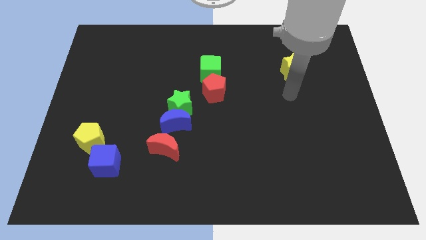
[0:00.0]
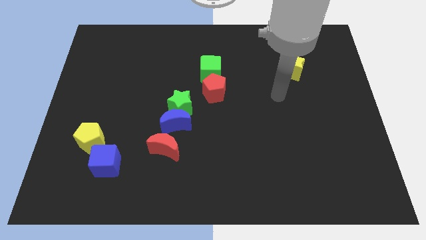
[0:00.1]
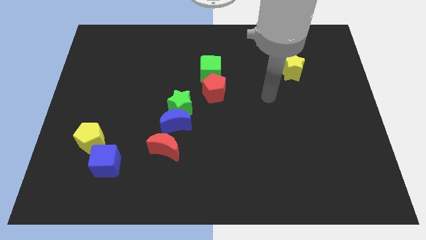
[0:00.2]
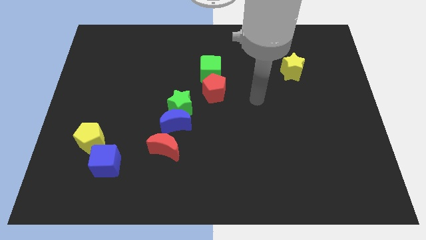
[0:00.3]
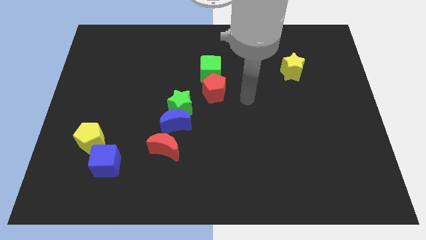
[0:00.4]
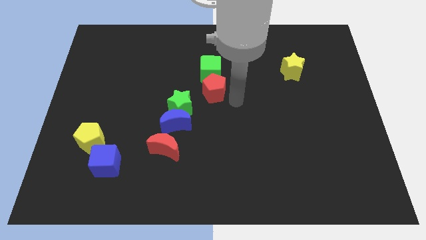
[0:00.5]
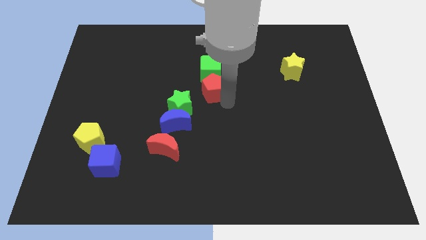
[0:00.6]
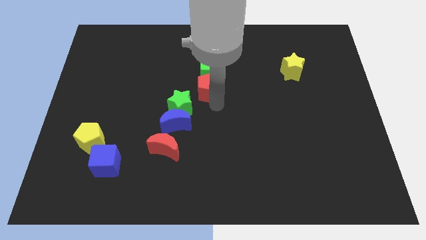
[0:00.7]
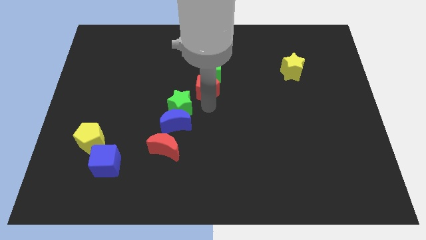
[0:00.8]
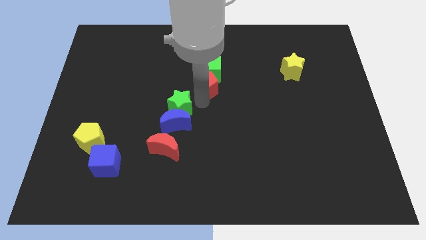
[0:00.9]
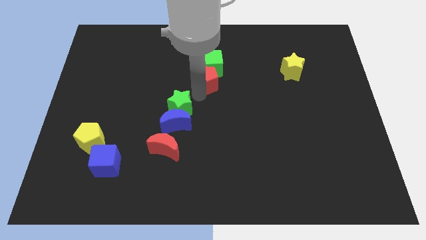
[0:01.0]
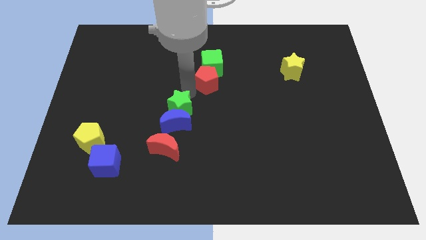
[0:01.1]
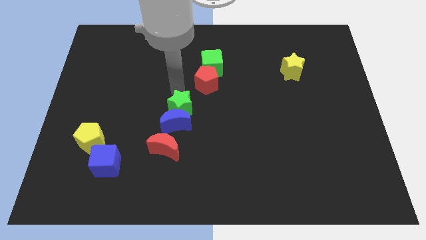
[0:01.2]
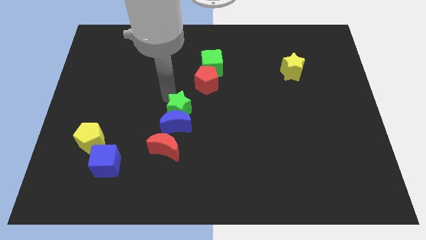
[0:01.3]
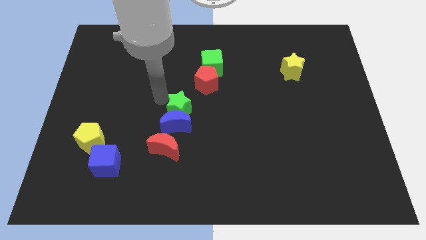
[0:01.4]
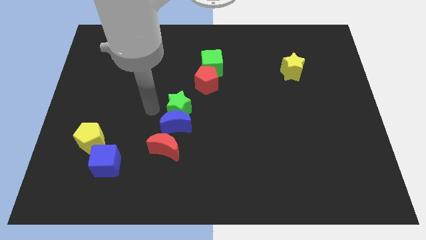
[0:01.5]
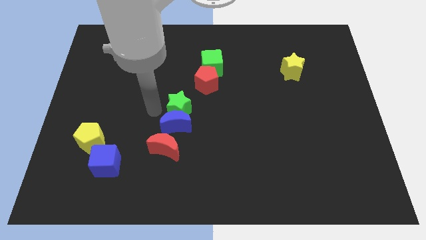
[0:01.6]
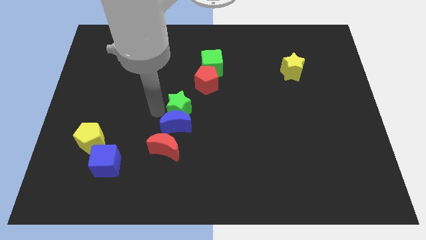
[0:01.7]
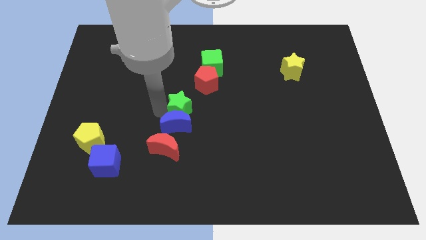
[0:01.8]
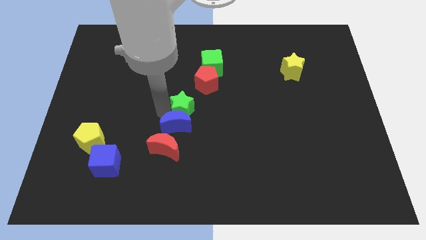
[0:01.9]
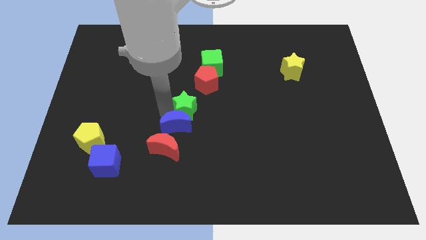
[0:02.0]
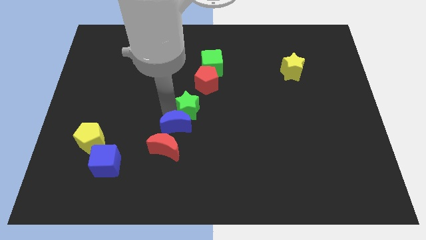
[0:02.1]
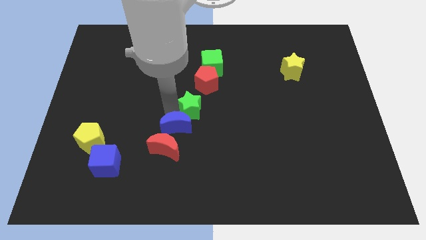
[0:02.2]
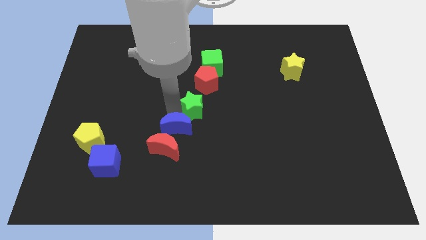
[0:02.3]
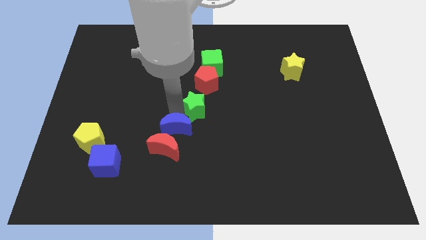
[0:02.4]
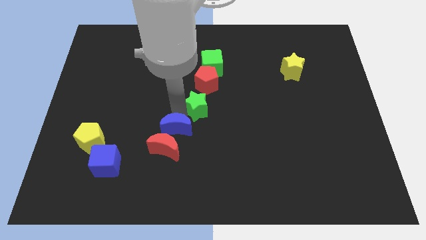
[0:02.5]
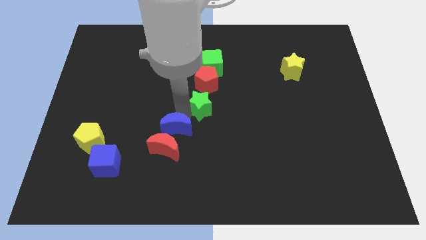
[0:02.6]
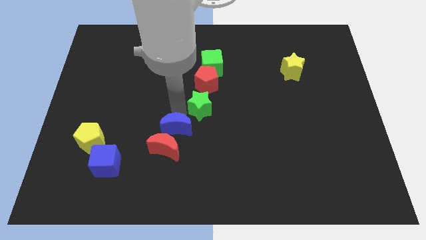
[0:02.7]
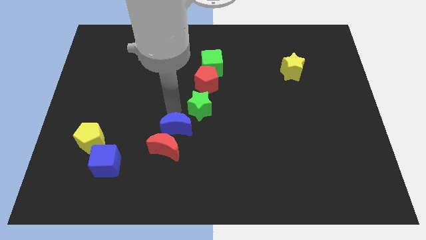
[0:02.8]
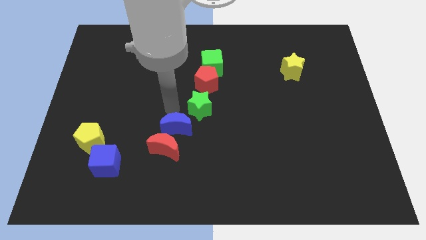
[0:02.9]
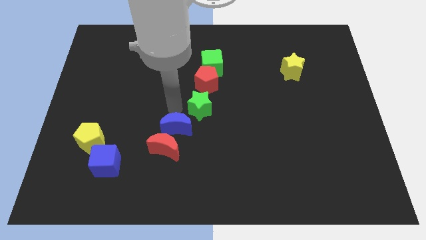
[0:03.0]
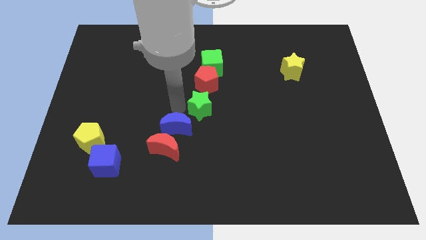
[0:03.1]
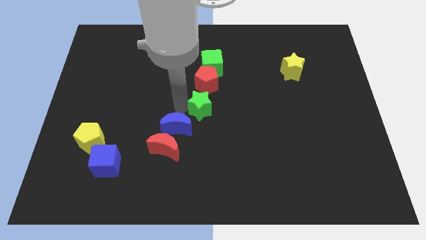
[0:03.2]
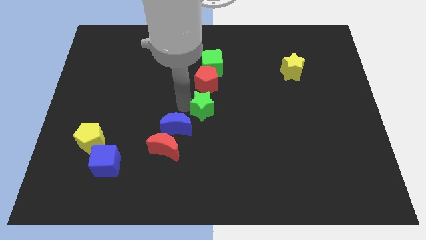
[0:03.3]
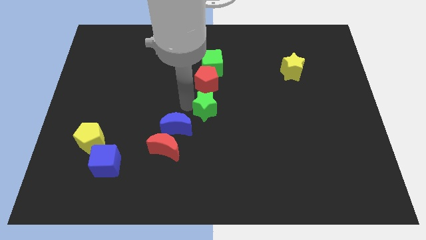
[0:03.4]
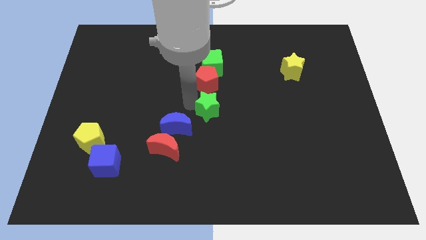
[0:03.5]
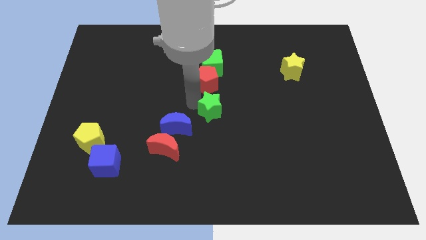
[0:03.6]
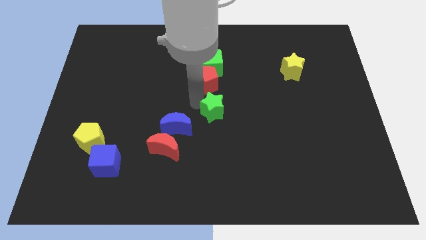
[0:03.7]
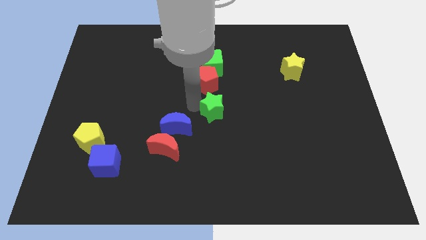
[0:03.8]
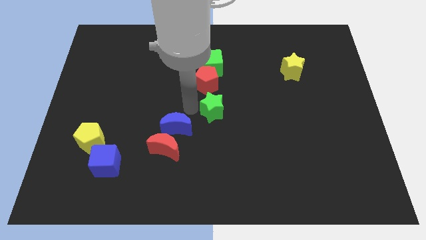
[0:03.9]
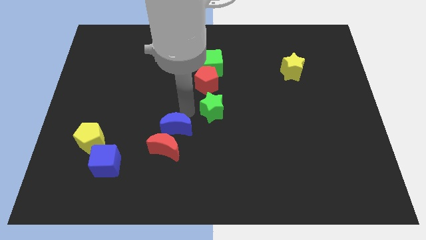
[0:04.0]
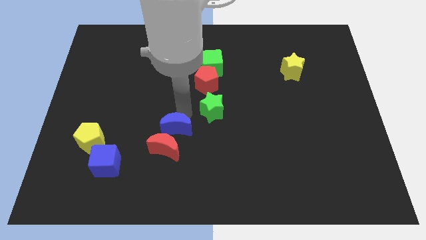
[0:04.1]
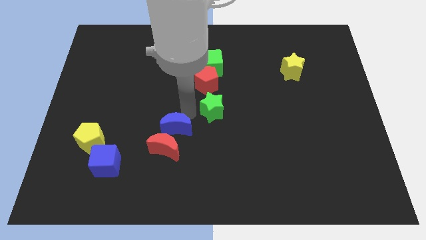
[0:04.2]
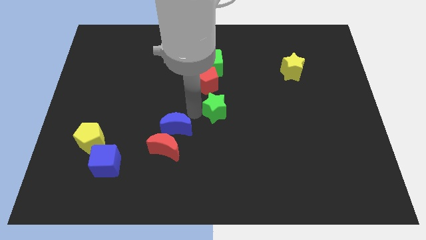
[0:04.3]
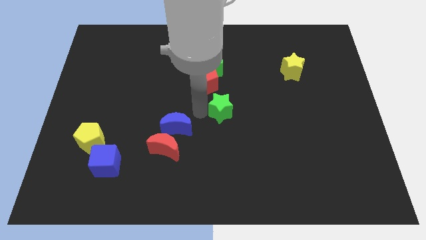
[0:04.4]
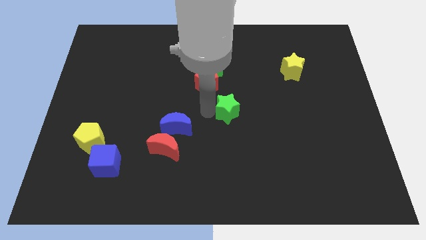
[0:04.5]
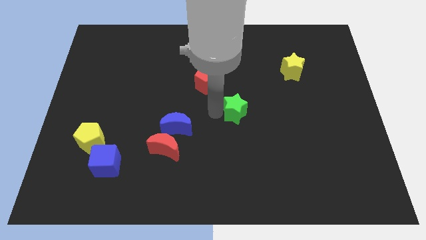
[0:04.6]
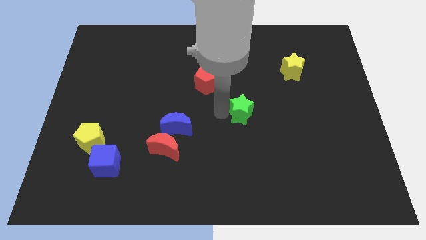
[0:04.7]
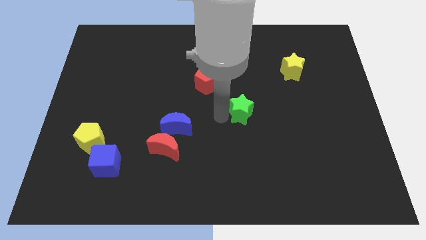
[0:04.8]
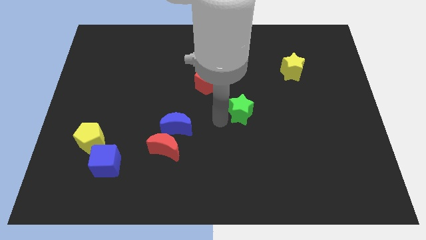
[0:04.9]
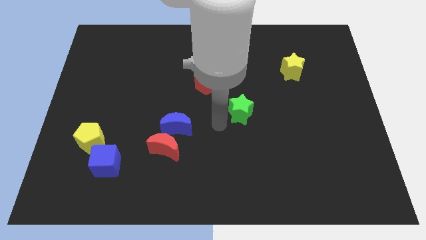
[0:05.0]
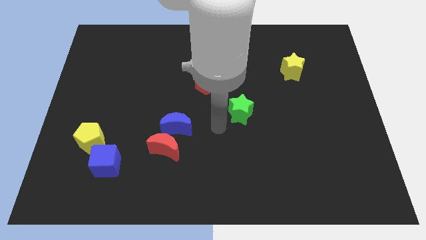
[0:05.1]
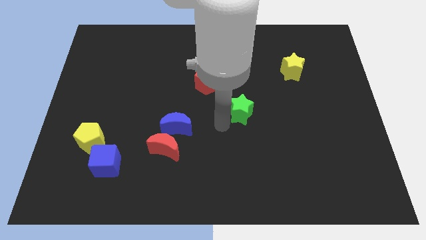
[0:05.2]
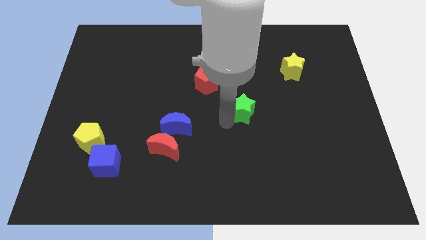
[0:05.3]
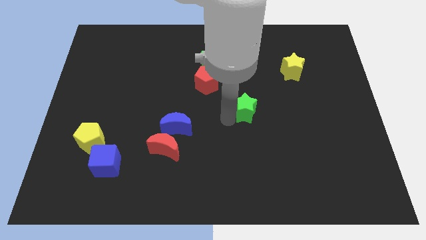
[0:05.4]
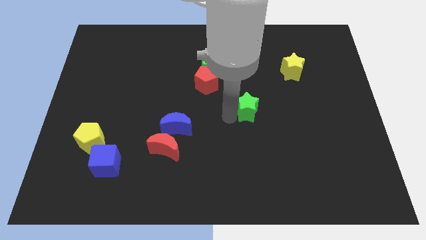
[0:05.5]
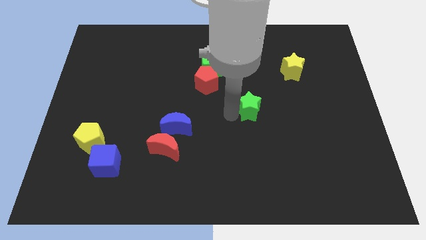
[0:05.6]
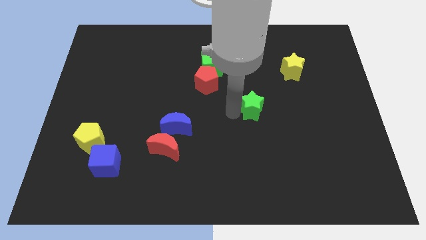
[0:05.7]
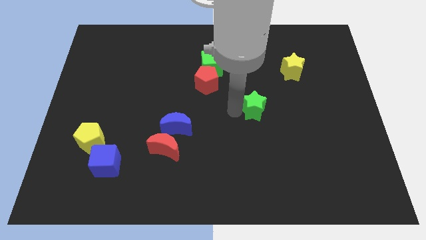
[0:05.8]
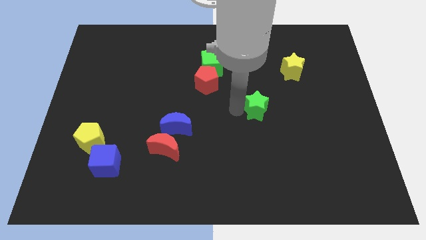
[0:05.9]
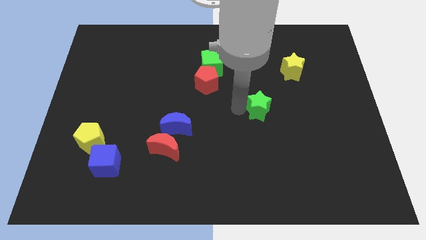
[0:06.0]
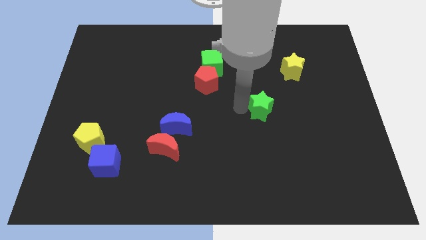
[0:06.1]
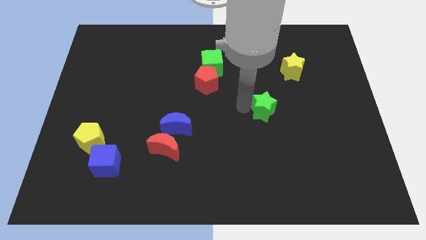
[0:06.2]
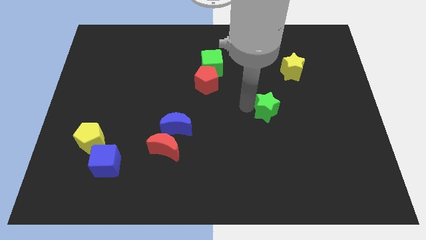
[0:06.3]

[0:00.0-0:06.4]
push the green star right

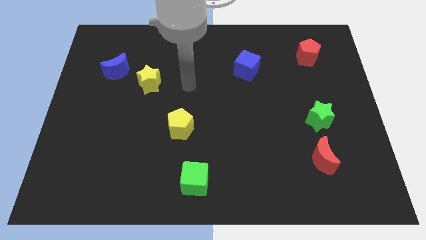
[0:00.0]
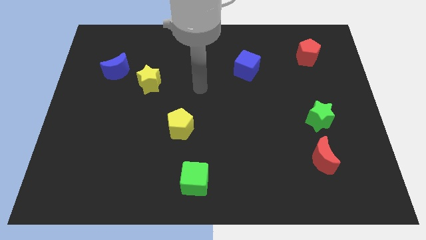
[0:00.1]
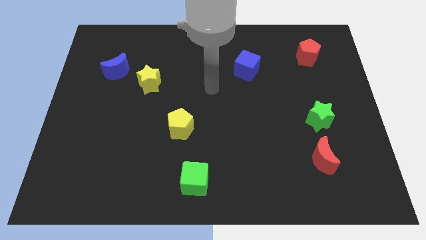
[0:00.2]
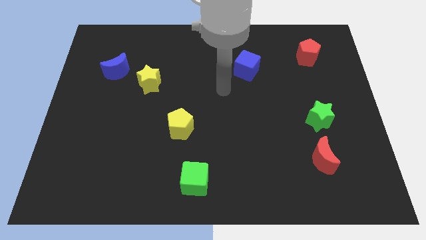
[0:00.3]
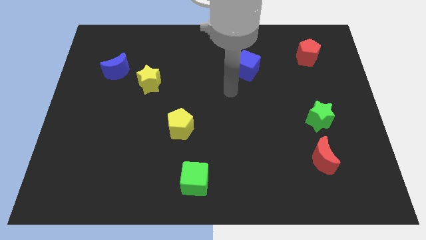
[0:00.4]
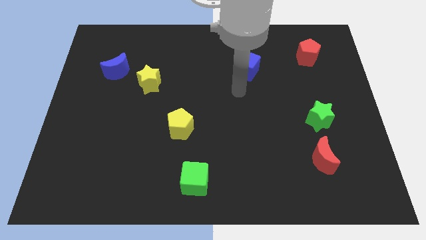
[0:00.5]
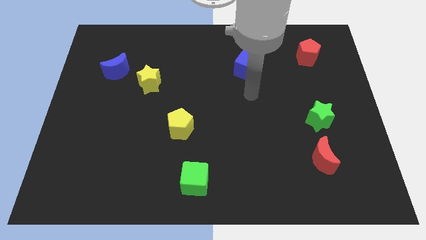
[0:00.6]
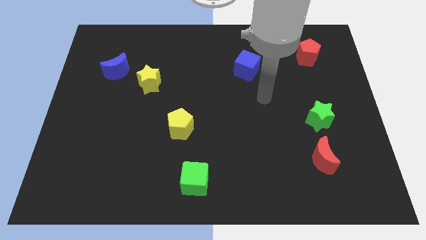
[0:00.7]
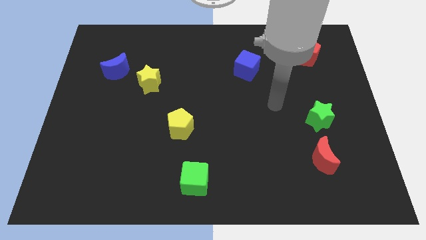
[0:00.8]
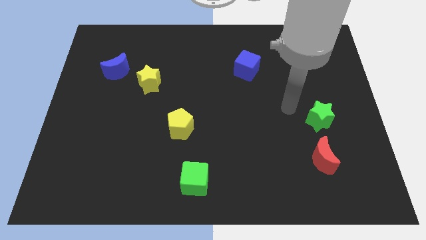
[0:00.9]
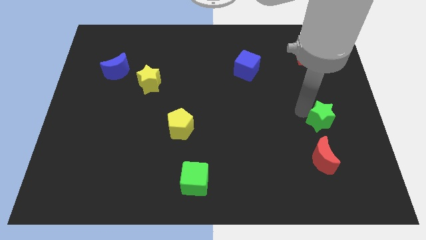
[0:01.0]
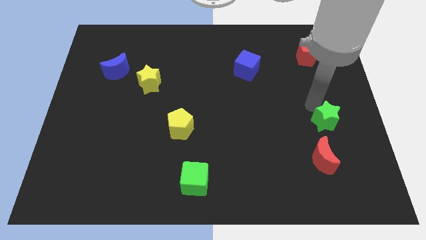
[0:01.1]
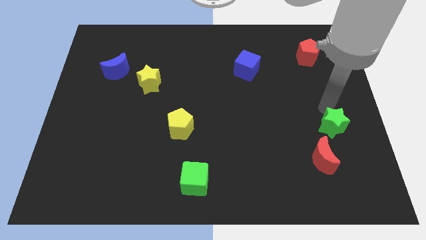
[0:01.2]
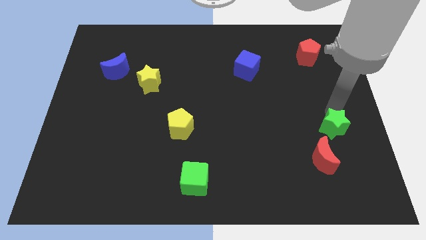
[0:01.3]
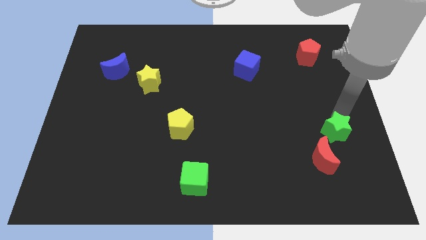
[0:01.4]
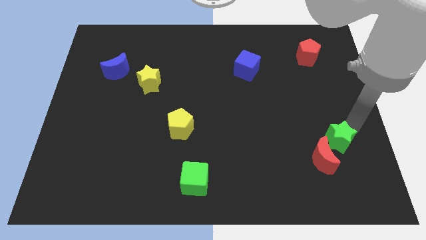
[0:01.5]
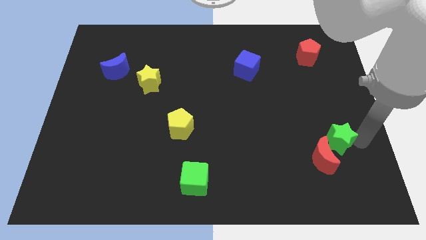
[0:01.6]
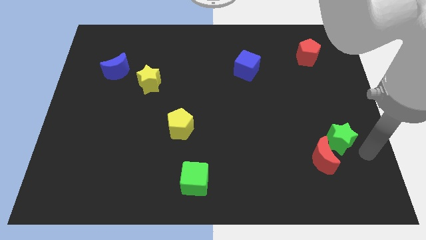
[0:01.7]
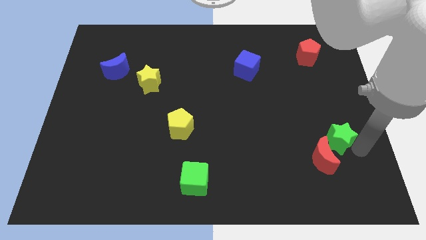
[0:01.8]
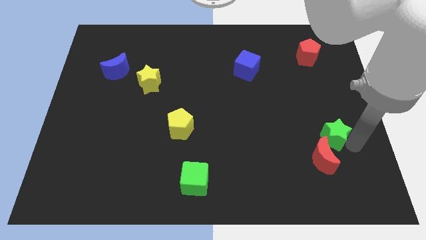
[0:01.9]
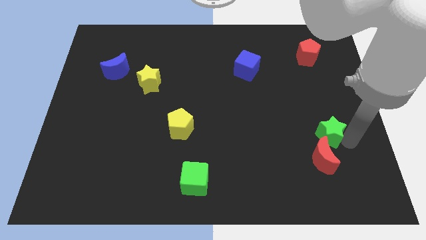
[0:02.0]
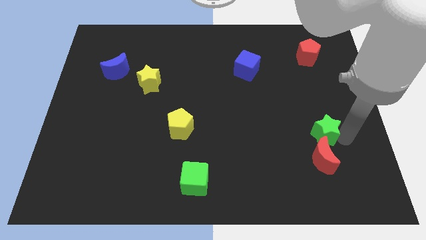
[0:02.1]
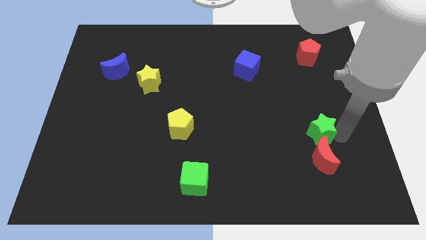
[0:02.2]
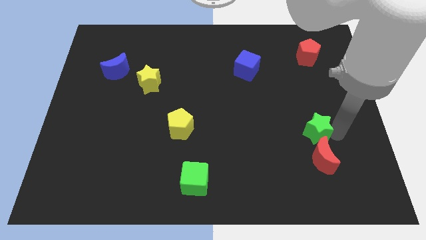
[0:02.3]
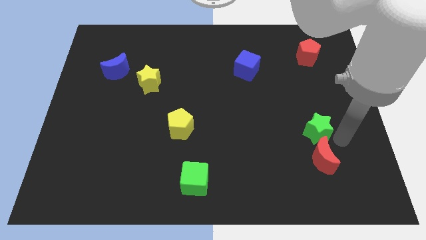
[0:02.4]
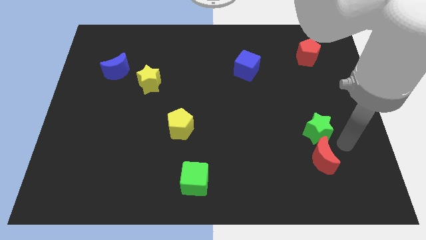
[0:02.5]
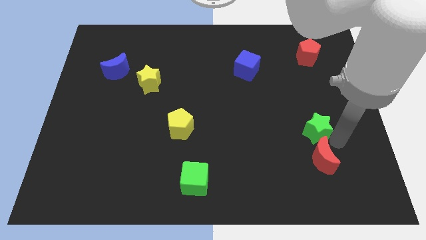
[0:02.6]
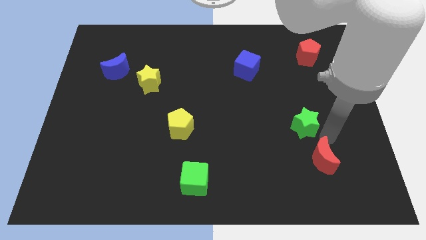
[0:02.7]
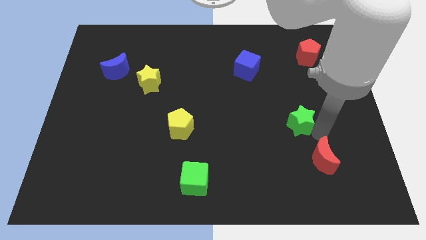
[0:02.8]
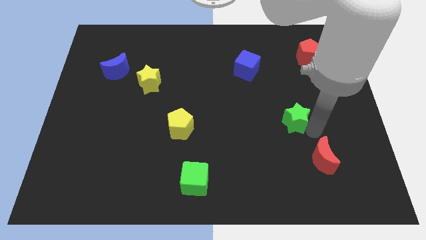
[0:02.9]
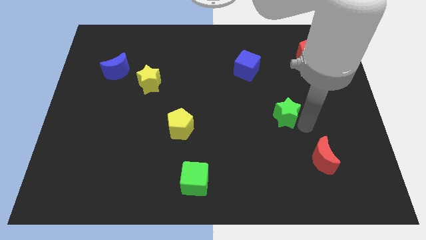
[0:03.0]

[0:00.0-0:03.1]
push the green star a little bit left
